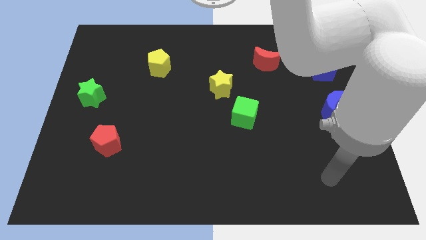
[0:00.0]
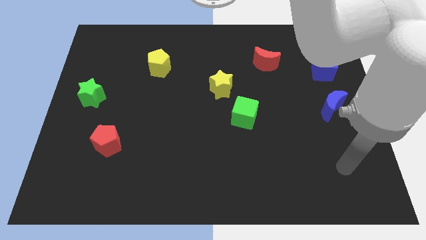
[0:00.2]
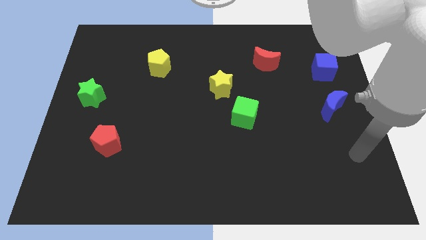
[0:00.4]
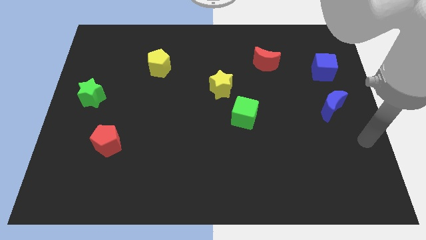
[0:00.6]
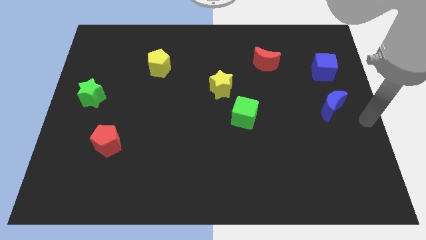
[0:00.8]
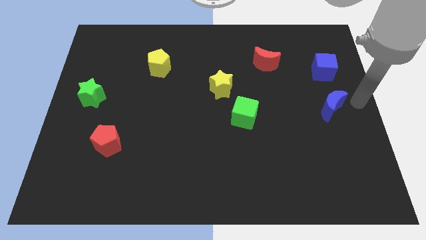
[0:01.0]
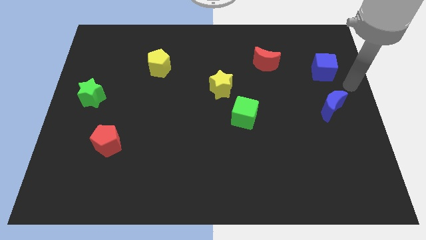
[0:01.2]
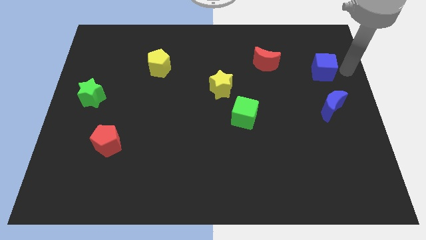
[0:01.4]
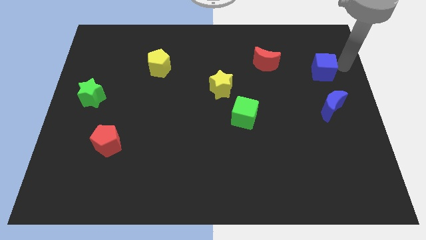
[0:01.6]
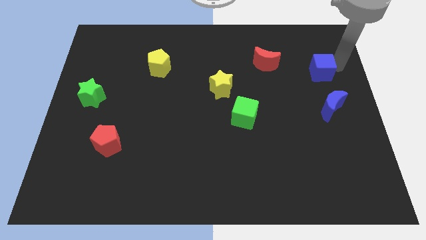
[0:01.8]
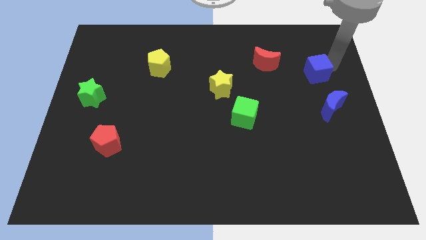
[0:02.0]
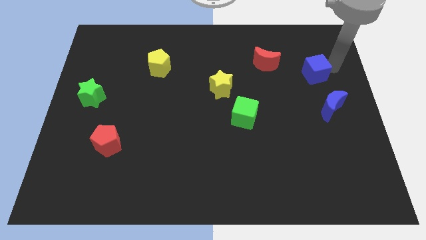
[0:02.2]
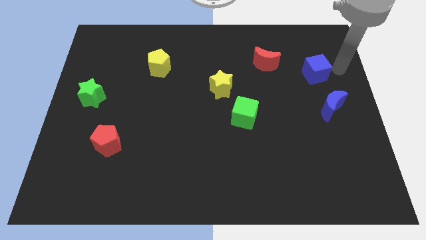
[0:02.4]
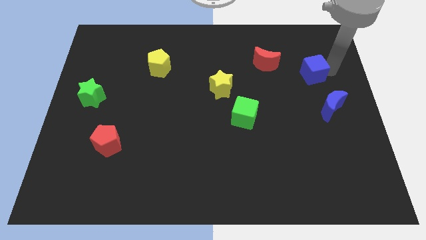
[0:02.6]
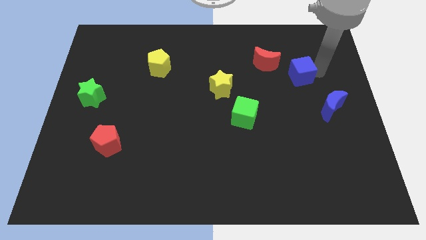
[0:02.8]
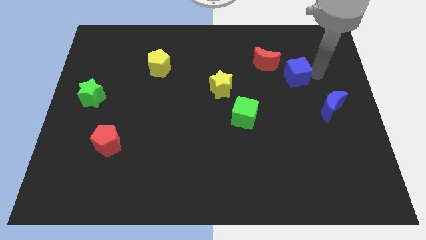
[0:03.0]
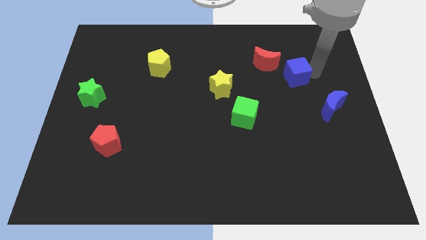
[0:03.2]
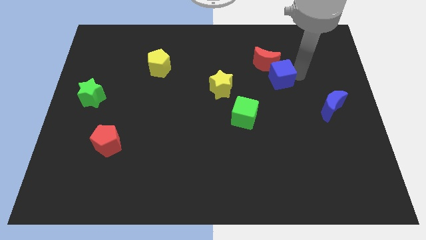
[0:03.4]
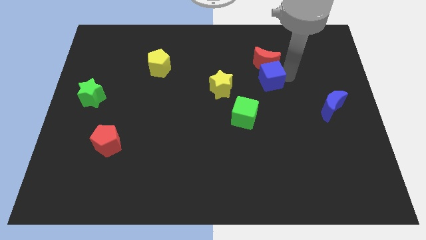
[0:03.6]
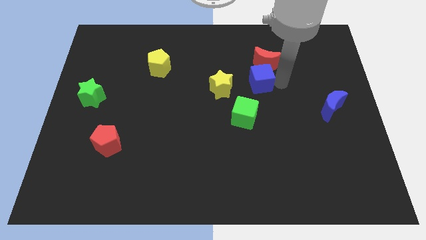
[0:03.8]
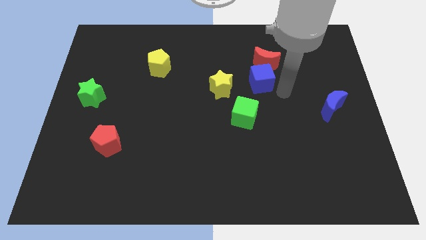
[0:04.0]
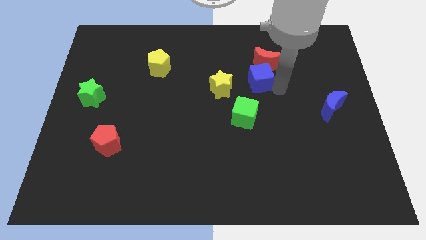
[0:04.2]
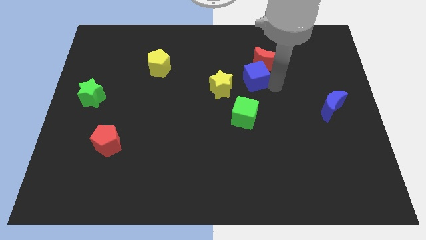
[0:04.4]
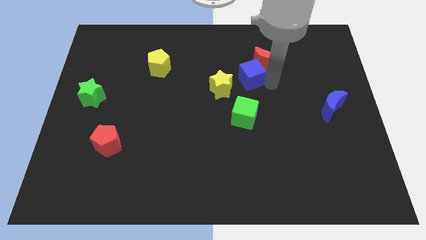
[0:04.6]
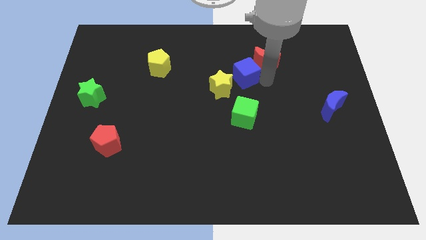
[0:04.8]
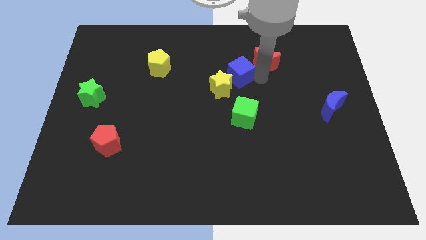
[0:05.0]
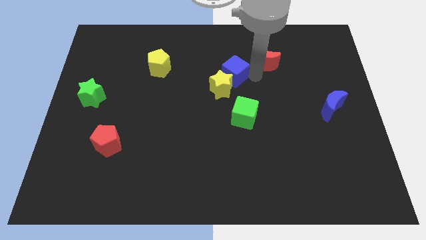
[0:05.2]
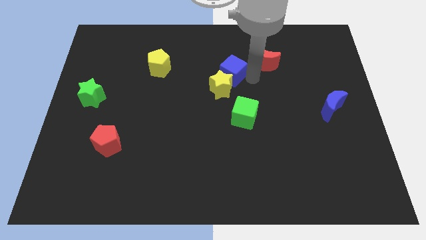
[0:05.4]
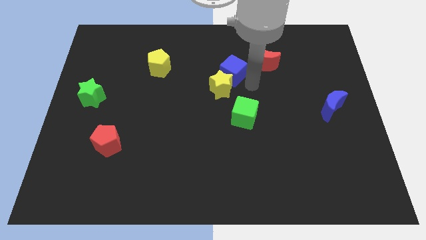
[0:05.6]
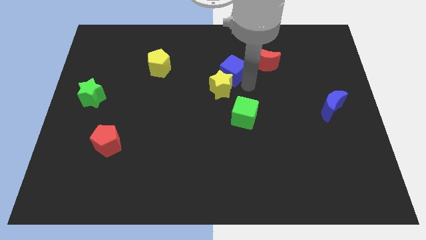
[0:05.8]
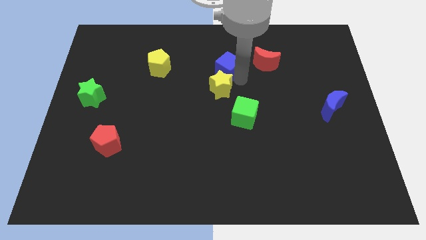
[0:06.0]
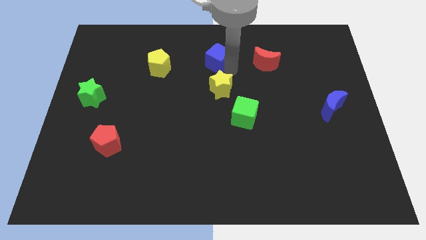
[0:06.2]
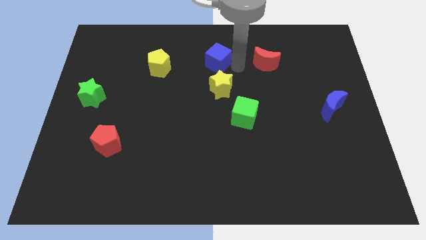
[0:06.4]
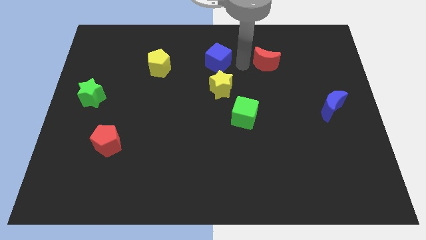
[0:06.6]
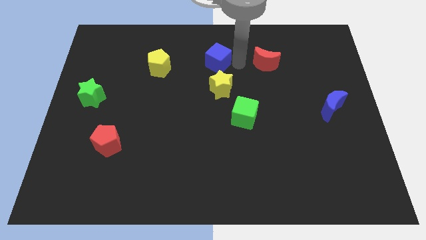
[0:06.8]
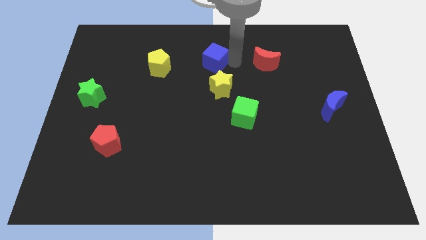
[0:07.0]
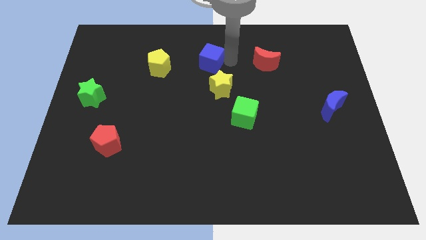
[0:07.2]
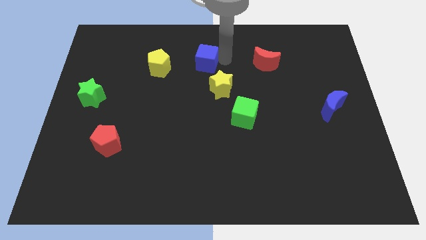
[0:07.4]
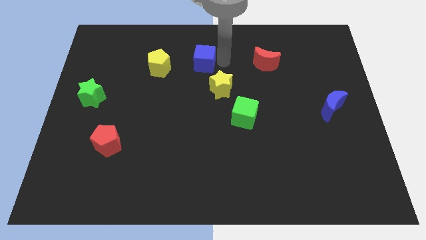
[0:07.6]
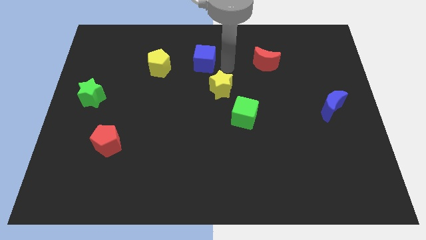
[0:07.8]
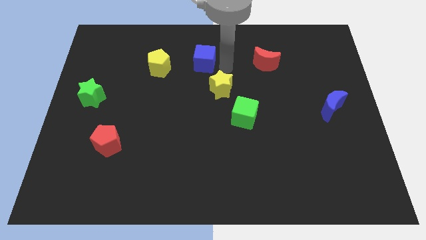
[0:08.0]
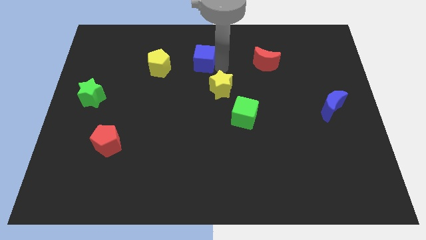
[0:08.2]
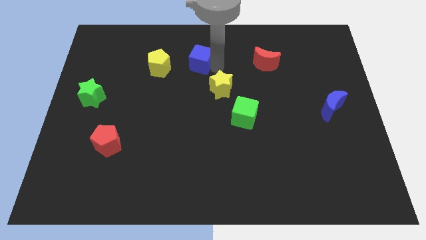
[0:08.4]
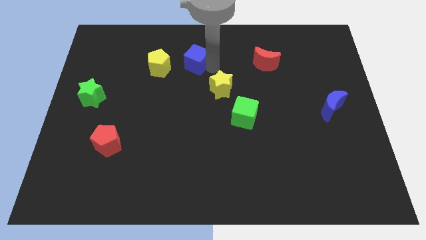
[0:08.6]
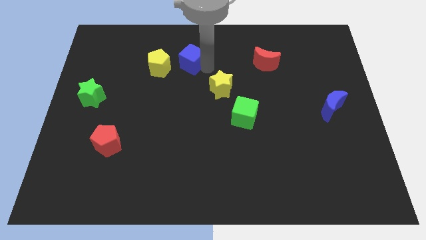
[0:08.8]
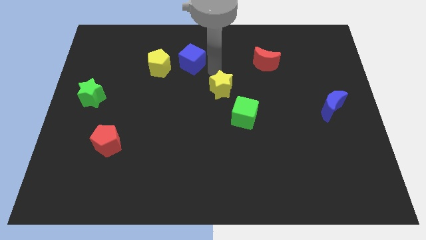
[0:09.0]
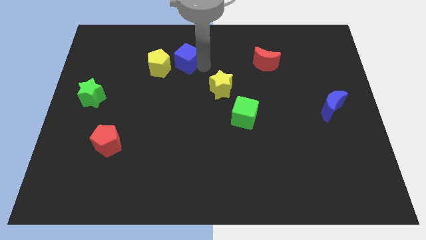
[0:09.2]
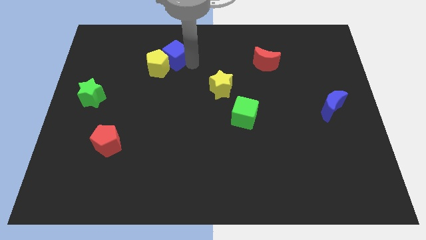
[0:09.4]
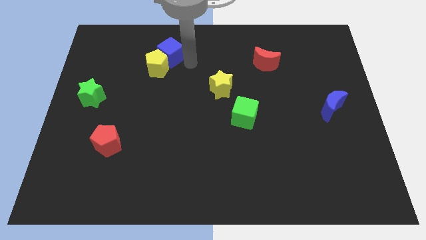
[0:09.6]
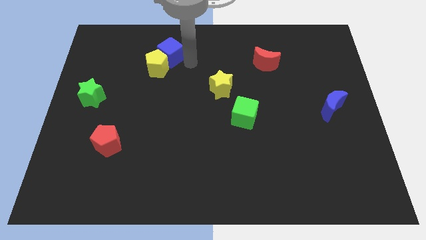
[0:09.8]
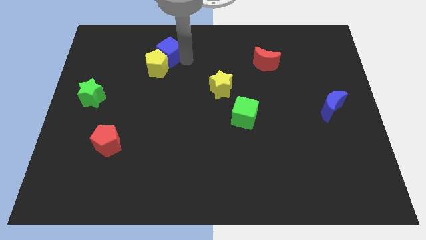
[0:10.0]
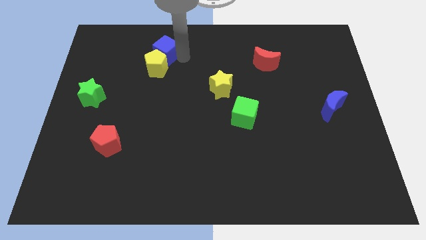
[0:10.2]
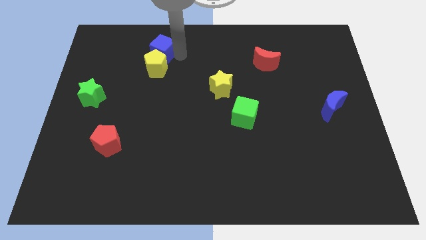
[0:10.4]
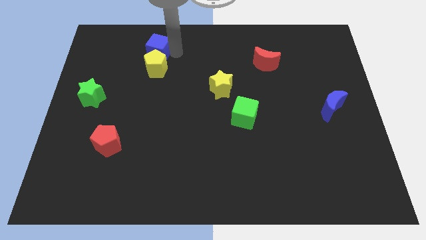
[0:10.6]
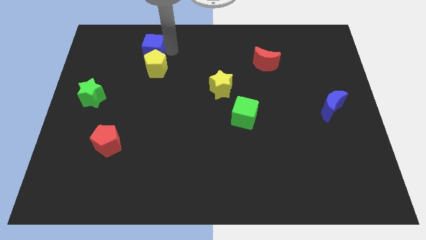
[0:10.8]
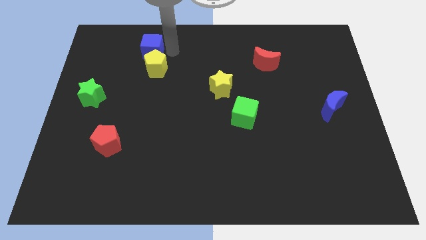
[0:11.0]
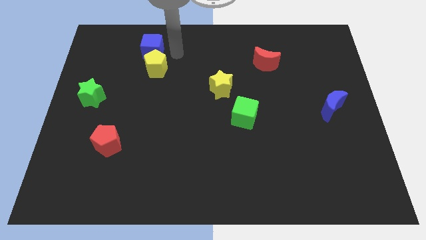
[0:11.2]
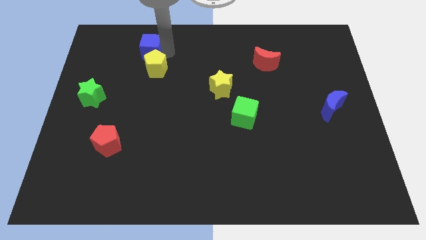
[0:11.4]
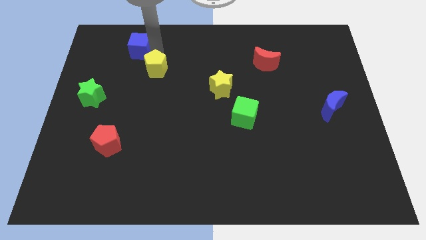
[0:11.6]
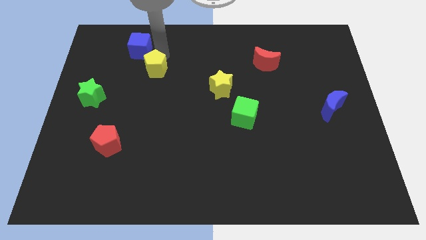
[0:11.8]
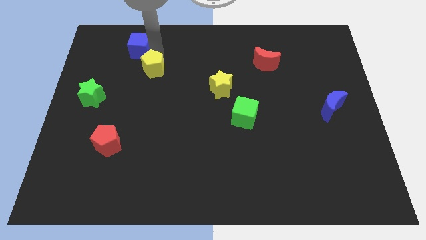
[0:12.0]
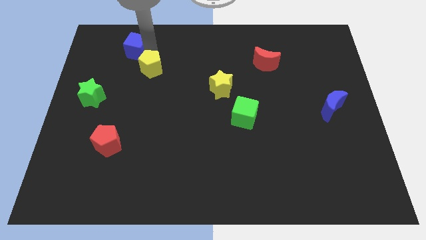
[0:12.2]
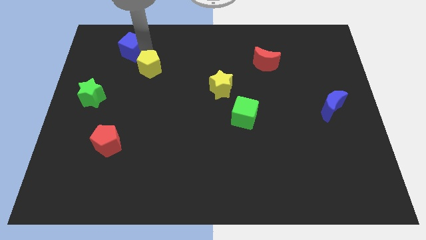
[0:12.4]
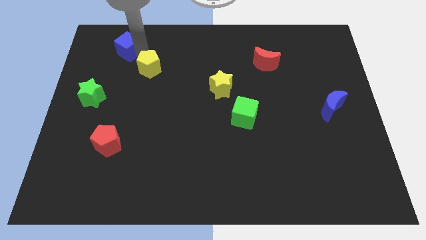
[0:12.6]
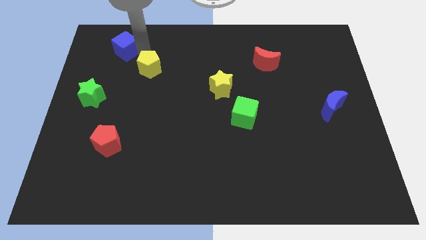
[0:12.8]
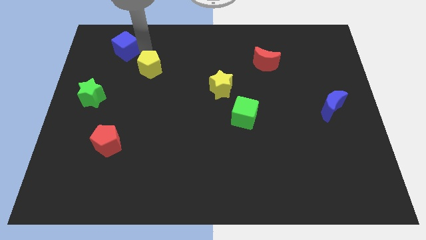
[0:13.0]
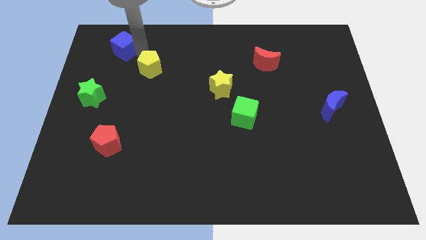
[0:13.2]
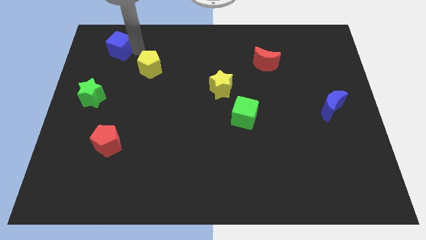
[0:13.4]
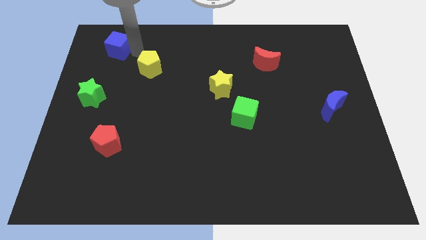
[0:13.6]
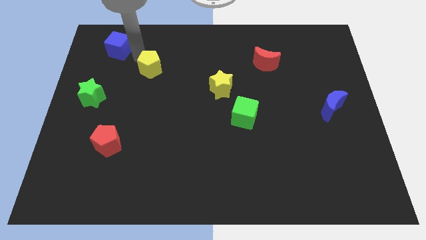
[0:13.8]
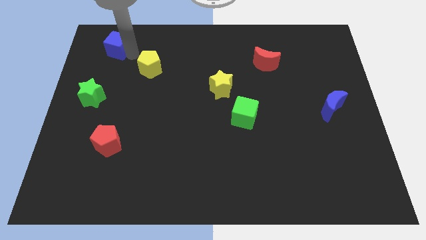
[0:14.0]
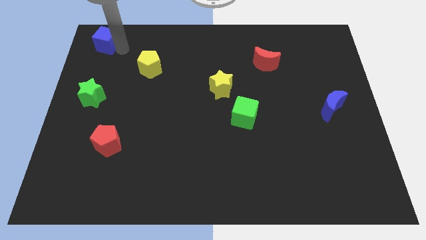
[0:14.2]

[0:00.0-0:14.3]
move the blue cube to the upper left corner
